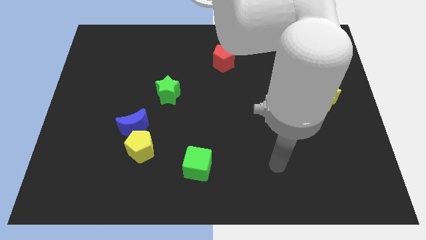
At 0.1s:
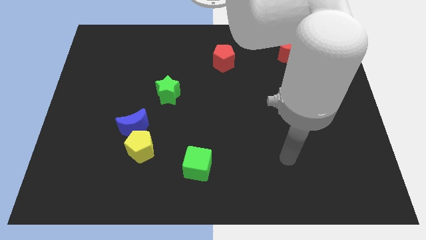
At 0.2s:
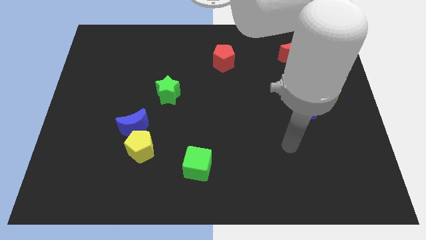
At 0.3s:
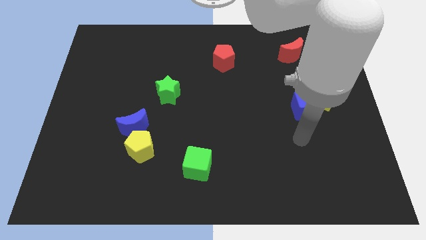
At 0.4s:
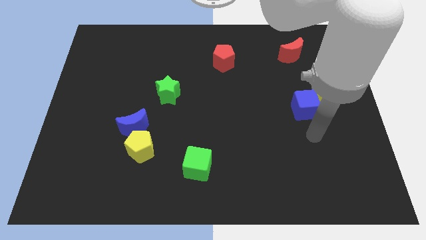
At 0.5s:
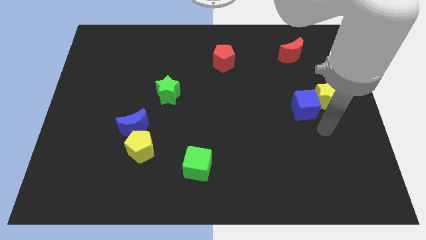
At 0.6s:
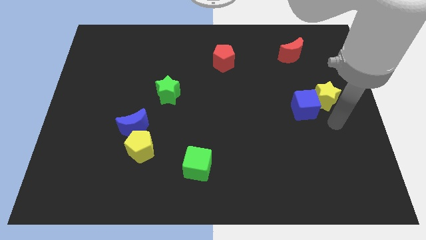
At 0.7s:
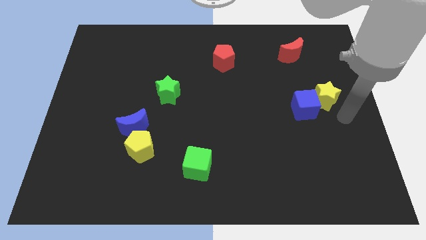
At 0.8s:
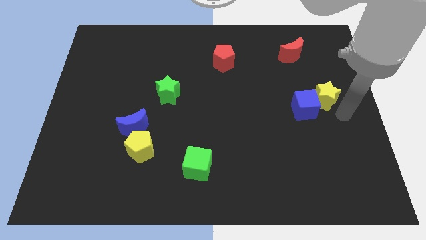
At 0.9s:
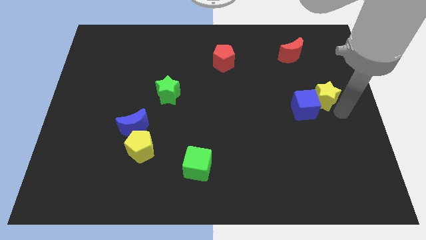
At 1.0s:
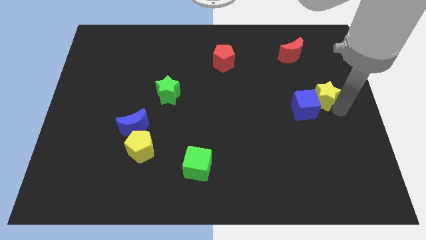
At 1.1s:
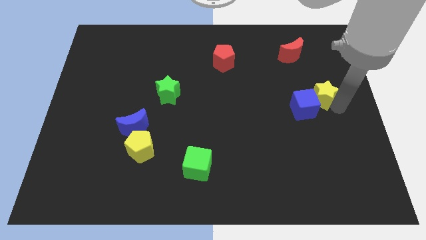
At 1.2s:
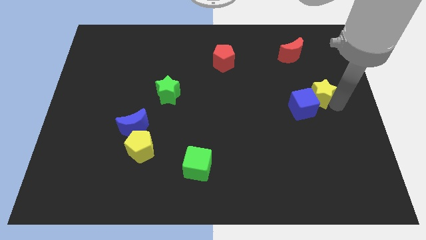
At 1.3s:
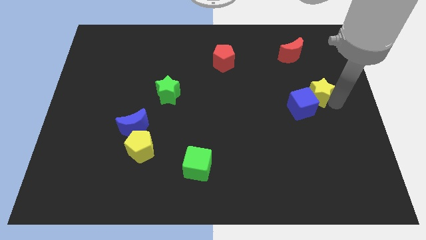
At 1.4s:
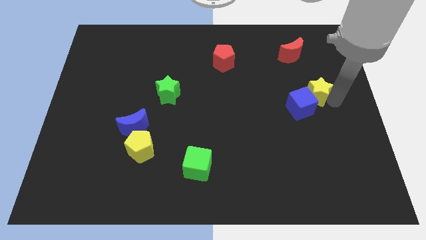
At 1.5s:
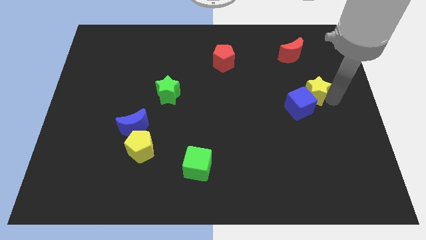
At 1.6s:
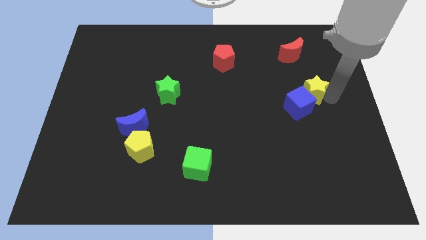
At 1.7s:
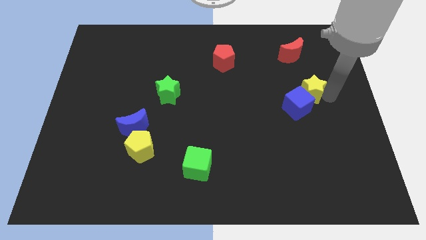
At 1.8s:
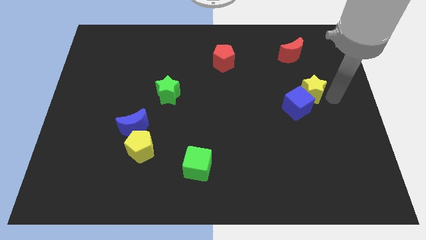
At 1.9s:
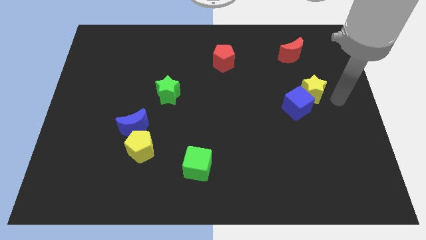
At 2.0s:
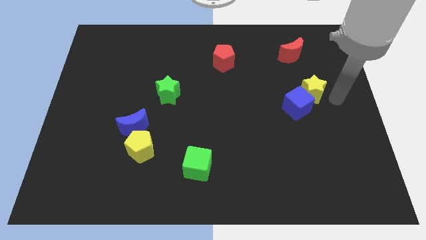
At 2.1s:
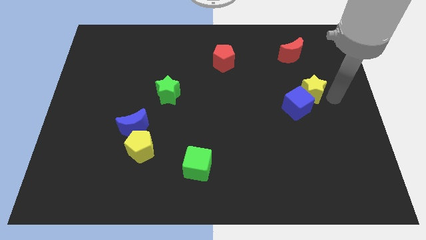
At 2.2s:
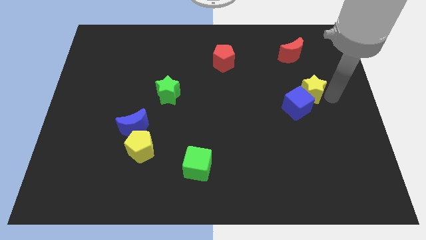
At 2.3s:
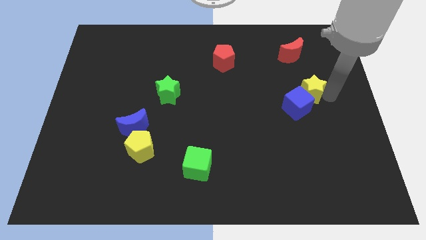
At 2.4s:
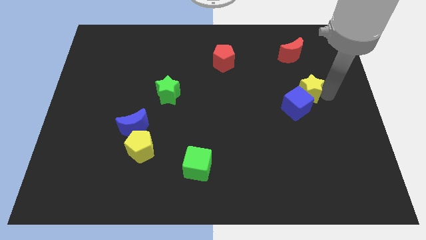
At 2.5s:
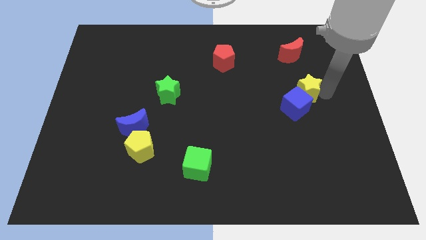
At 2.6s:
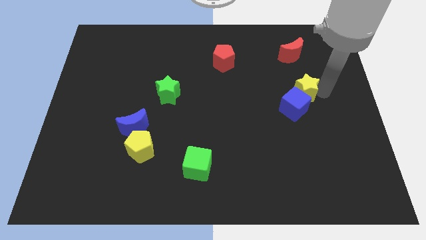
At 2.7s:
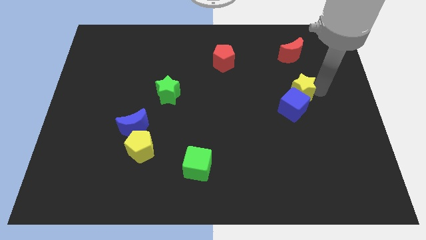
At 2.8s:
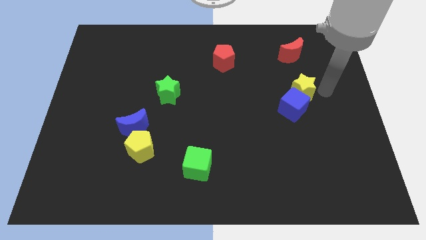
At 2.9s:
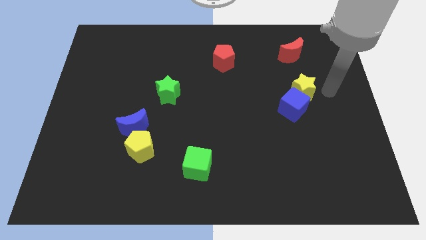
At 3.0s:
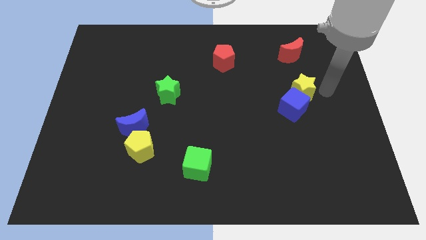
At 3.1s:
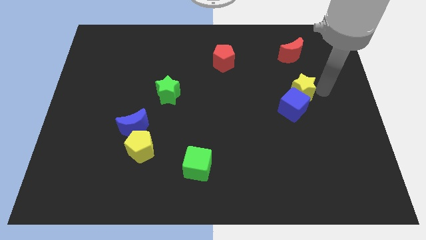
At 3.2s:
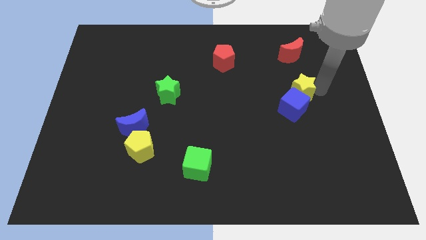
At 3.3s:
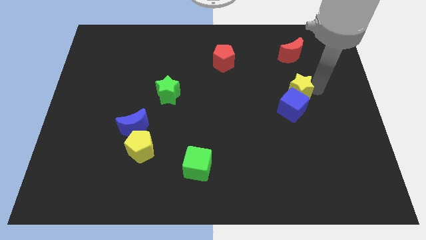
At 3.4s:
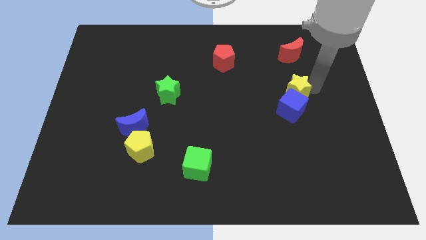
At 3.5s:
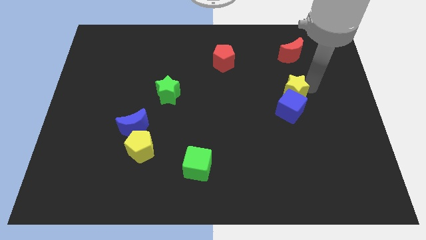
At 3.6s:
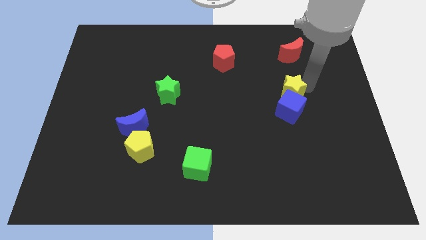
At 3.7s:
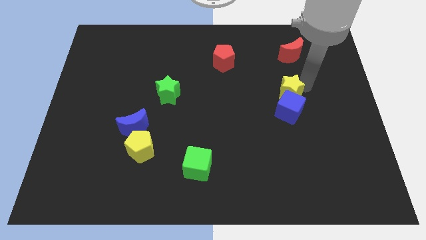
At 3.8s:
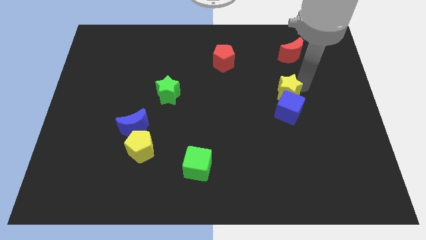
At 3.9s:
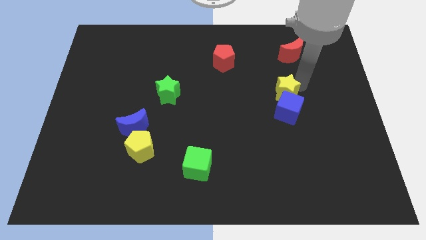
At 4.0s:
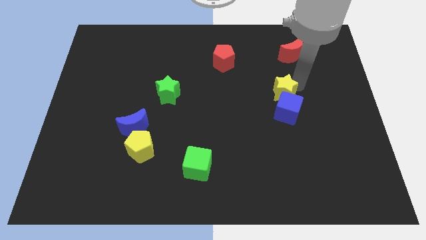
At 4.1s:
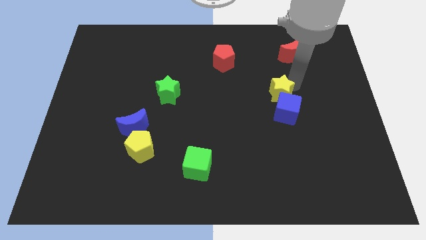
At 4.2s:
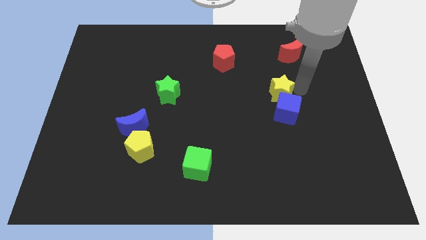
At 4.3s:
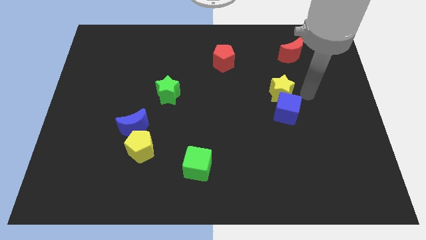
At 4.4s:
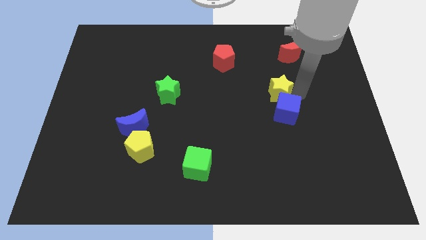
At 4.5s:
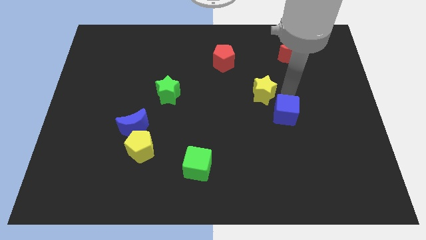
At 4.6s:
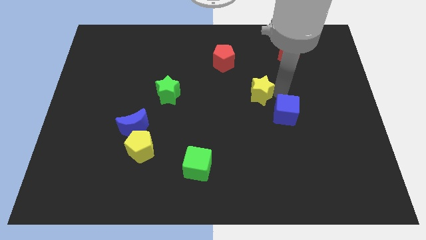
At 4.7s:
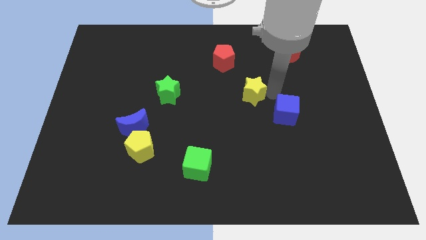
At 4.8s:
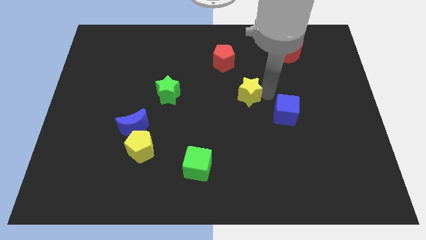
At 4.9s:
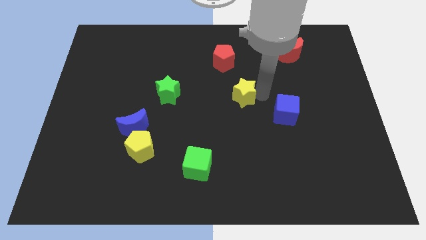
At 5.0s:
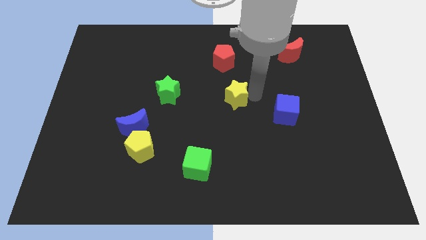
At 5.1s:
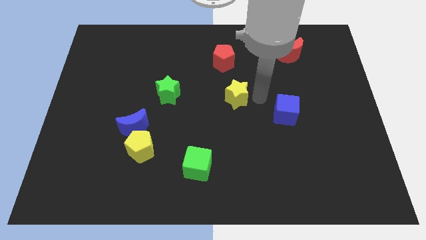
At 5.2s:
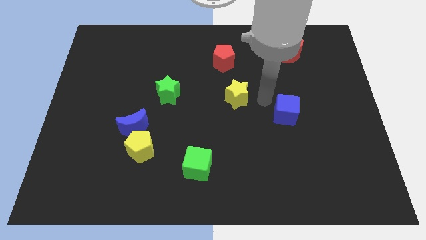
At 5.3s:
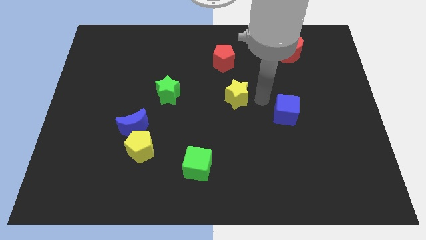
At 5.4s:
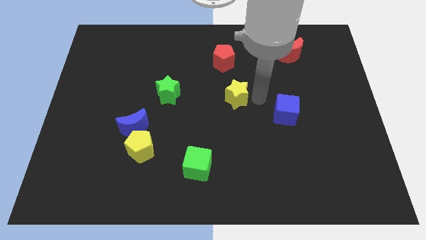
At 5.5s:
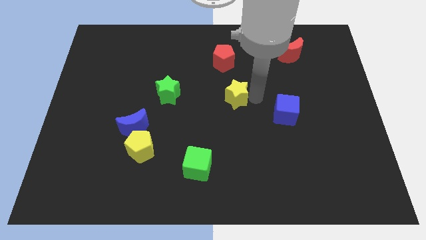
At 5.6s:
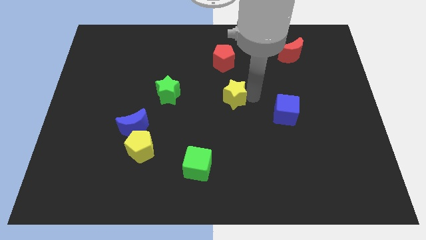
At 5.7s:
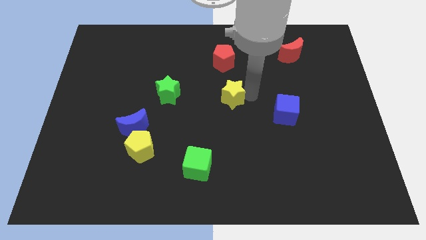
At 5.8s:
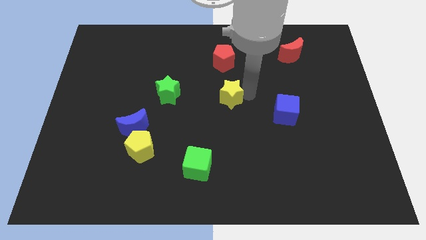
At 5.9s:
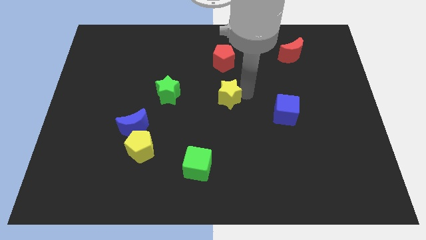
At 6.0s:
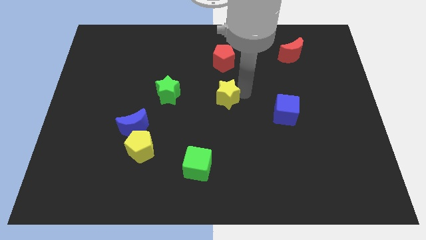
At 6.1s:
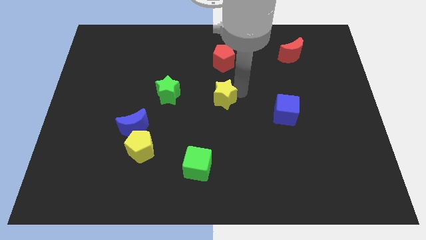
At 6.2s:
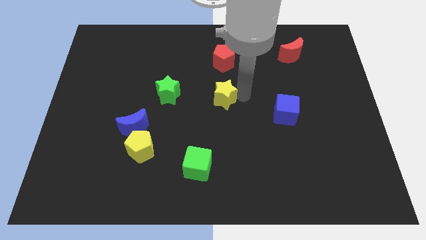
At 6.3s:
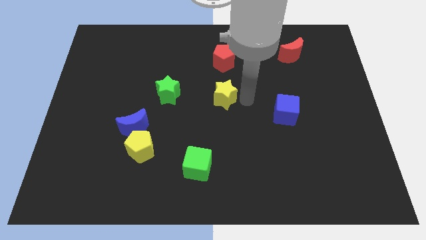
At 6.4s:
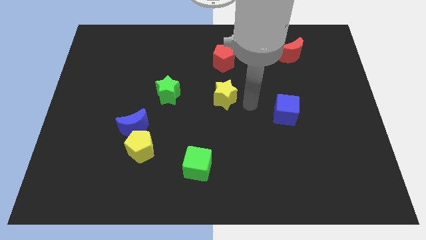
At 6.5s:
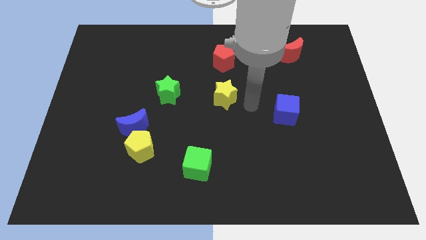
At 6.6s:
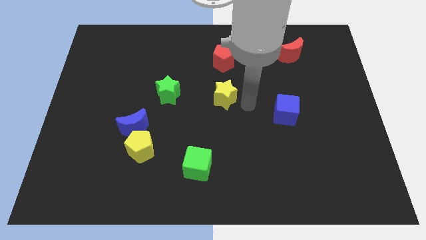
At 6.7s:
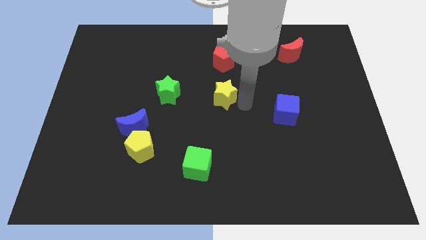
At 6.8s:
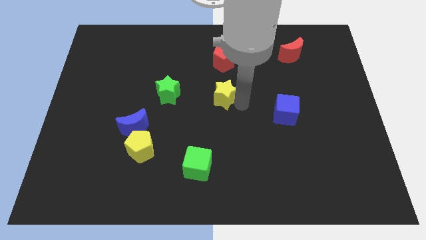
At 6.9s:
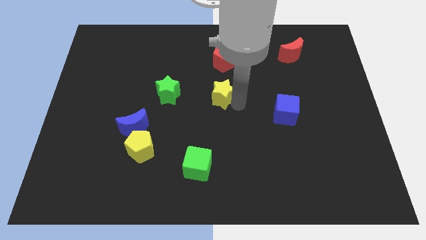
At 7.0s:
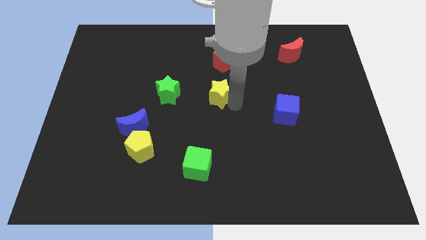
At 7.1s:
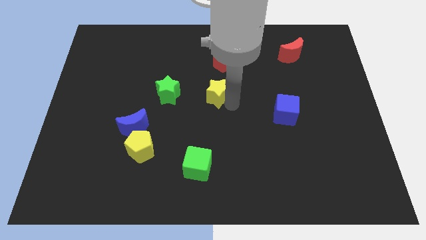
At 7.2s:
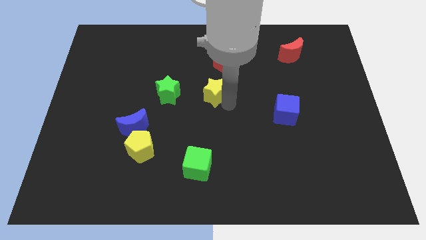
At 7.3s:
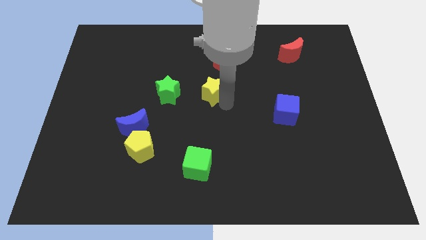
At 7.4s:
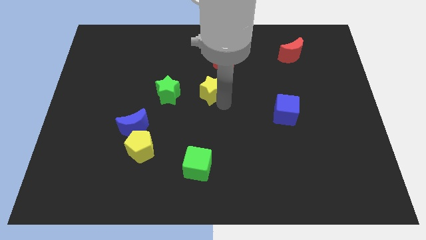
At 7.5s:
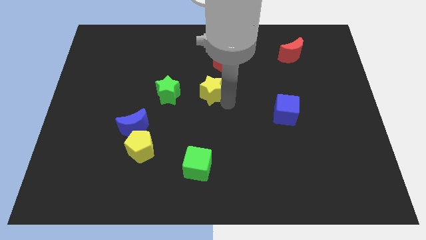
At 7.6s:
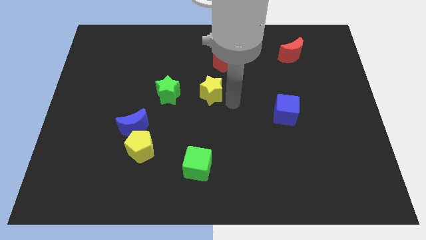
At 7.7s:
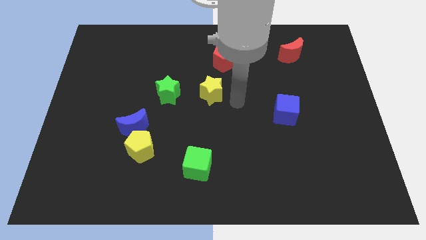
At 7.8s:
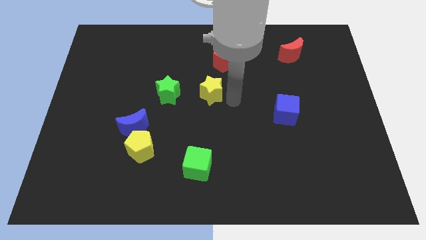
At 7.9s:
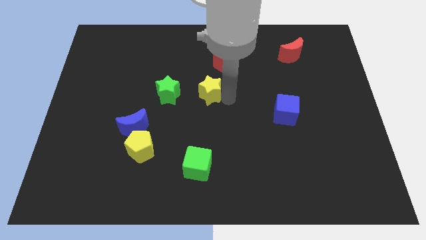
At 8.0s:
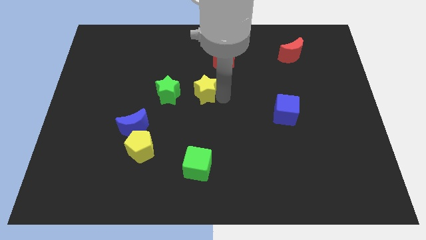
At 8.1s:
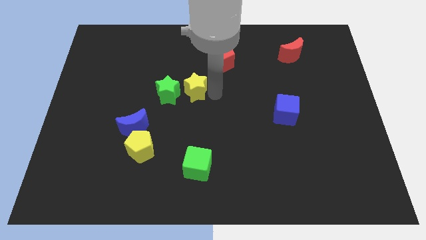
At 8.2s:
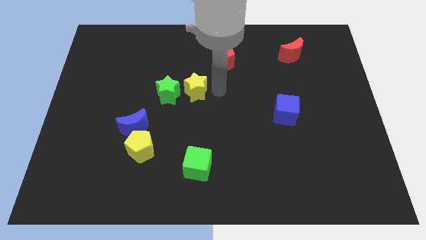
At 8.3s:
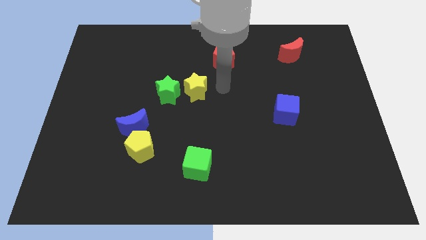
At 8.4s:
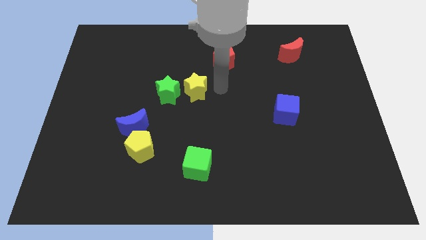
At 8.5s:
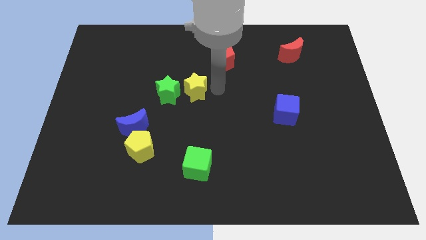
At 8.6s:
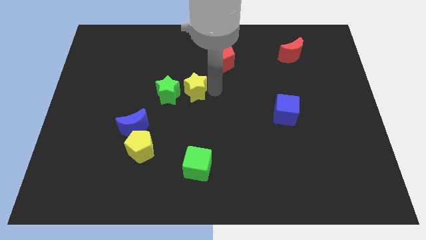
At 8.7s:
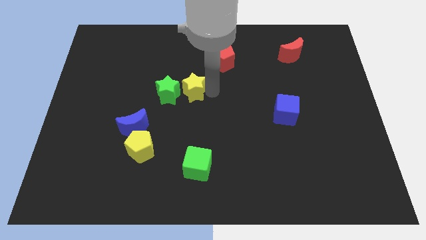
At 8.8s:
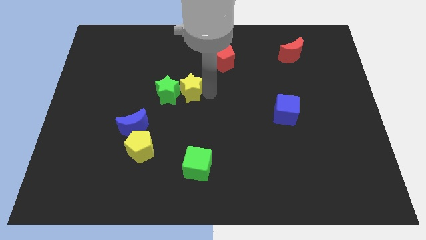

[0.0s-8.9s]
slide the yellow star towards the green star
